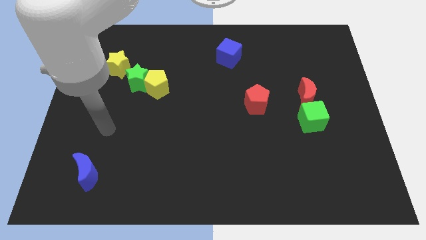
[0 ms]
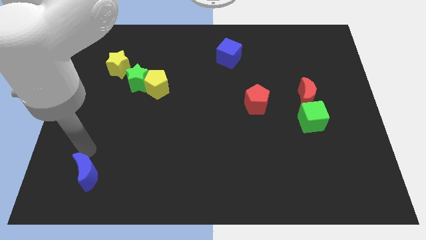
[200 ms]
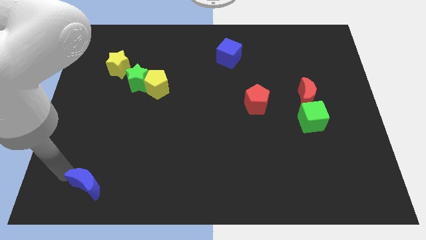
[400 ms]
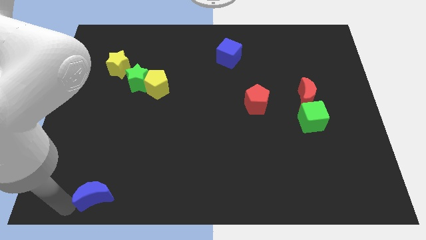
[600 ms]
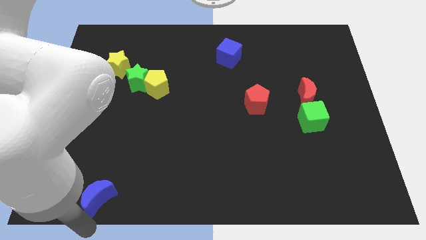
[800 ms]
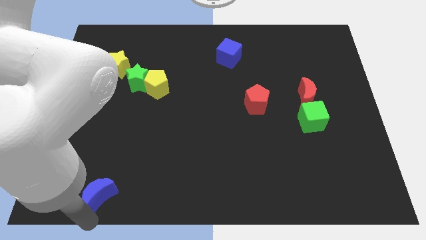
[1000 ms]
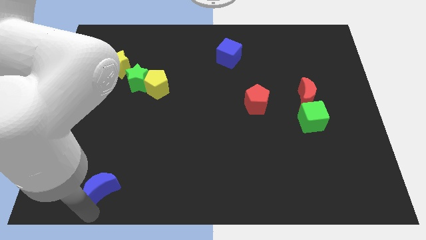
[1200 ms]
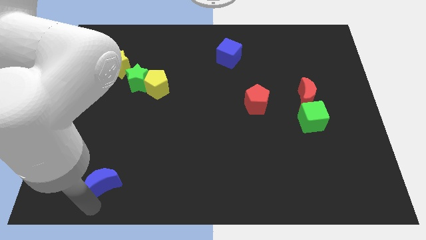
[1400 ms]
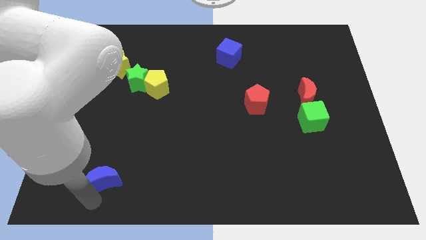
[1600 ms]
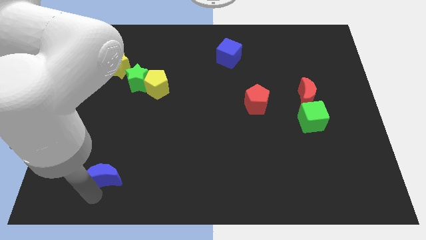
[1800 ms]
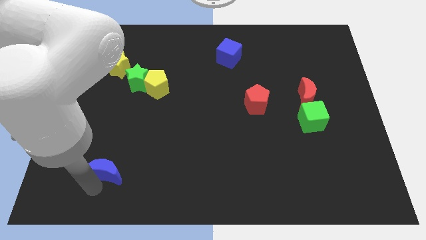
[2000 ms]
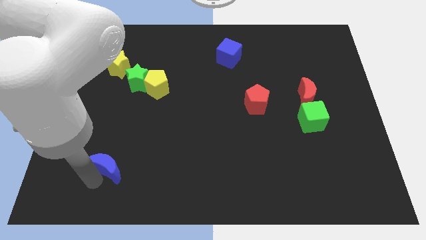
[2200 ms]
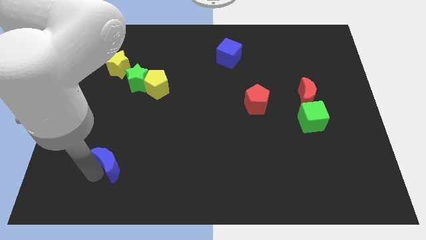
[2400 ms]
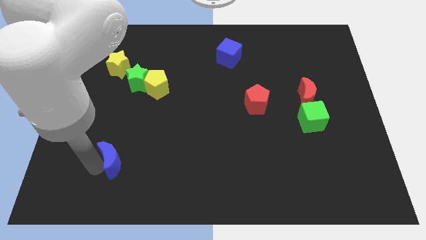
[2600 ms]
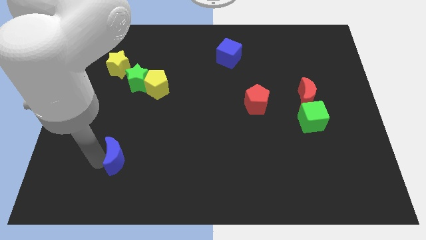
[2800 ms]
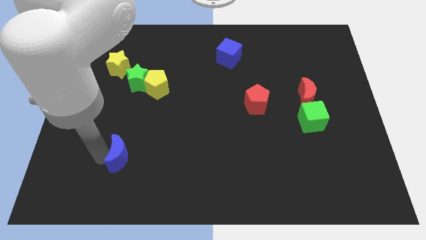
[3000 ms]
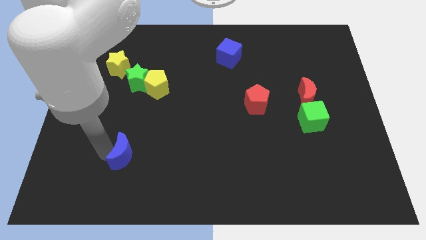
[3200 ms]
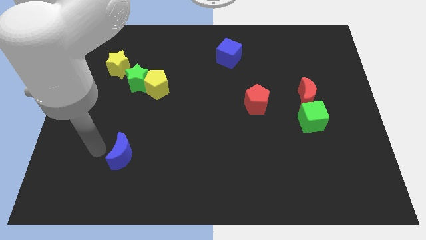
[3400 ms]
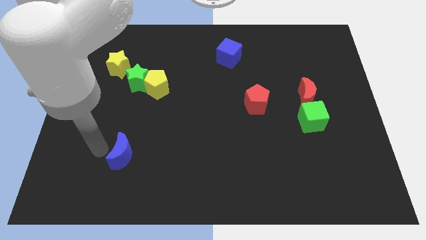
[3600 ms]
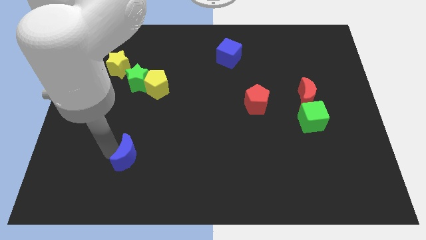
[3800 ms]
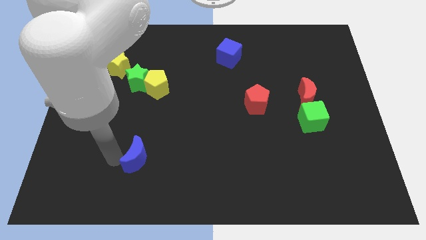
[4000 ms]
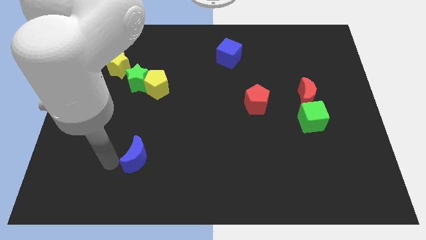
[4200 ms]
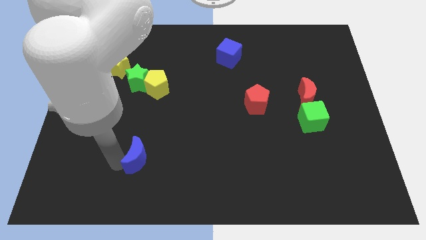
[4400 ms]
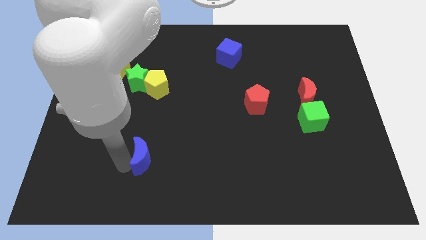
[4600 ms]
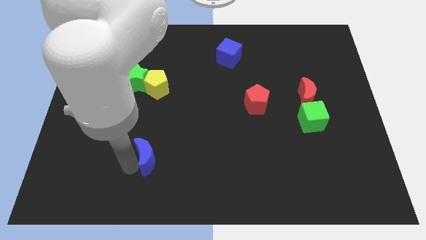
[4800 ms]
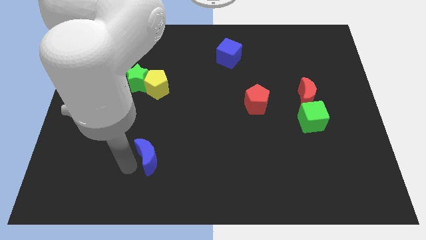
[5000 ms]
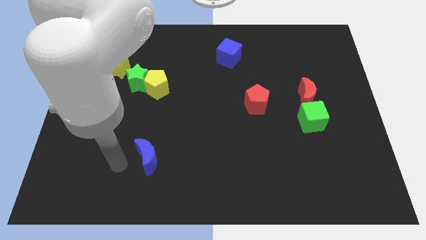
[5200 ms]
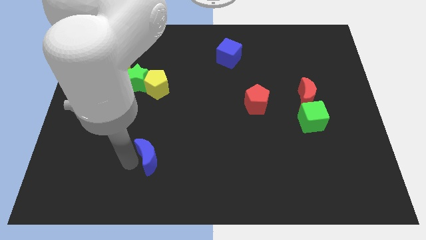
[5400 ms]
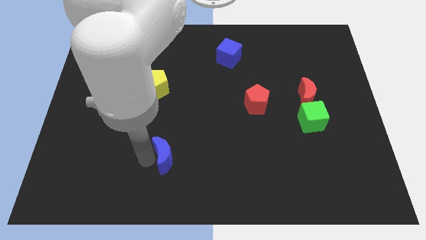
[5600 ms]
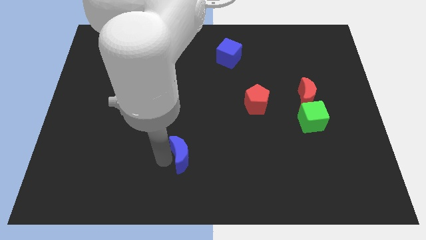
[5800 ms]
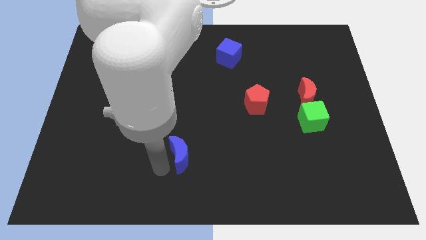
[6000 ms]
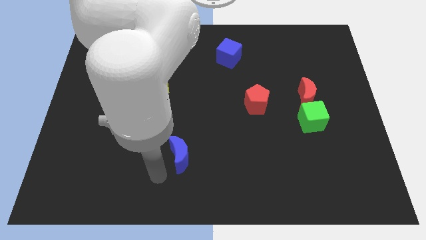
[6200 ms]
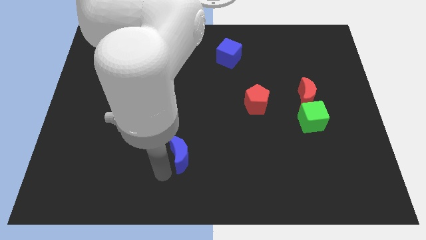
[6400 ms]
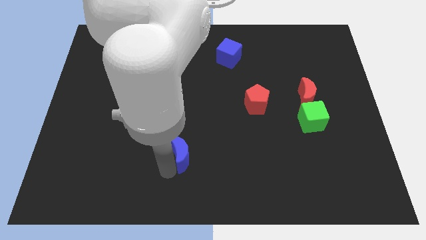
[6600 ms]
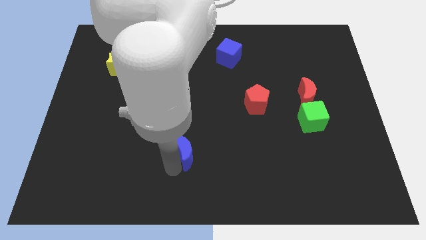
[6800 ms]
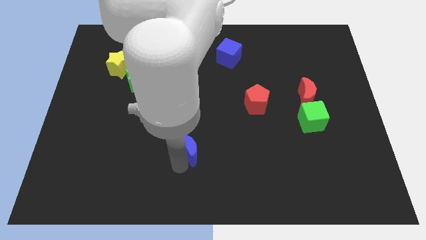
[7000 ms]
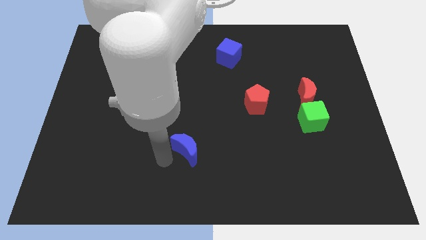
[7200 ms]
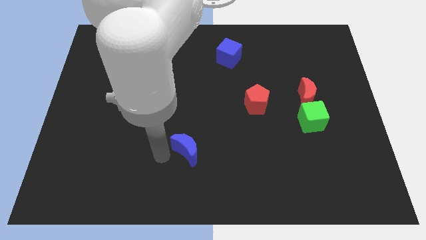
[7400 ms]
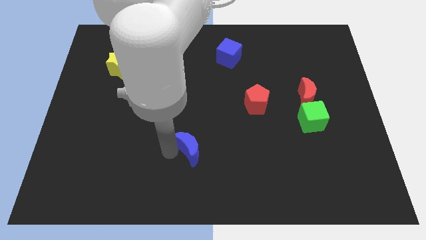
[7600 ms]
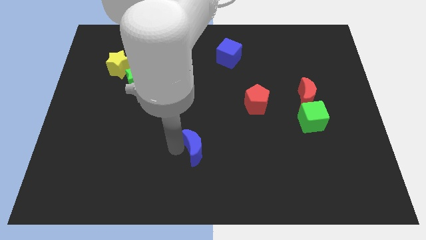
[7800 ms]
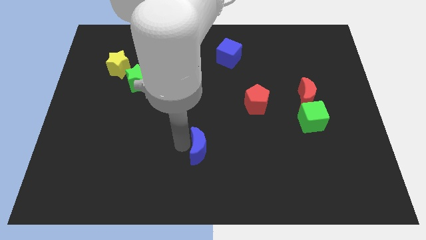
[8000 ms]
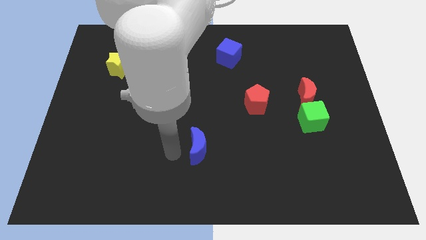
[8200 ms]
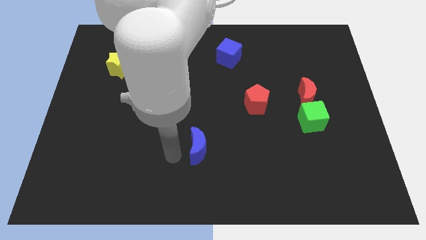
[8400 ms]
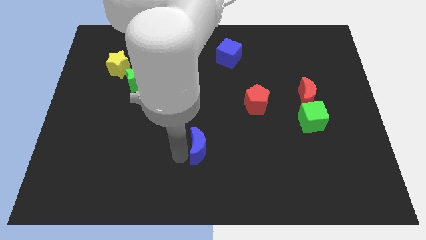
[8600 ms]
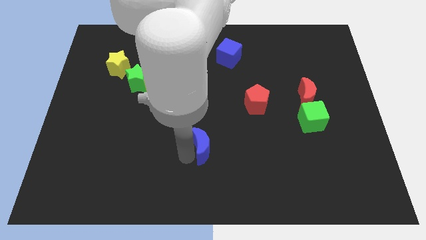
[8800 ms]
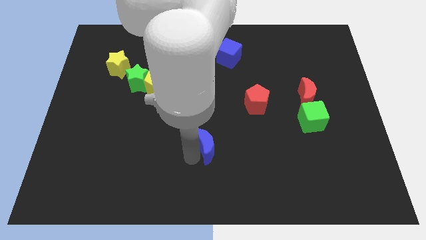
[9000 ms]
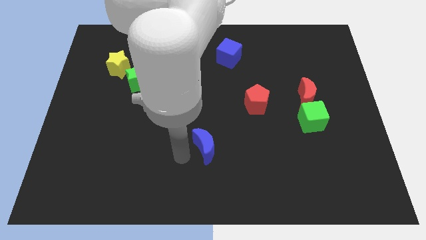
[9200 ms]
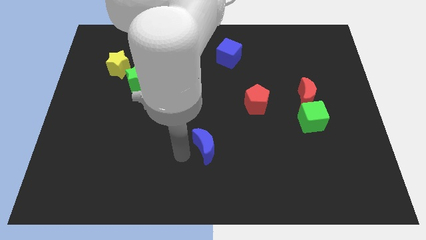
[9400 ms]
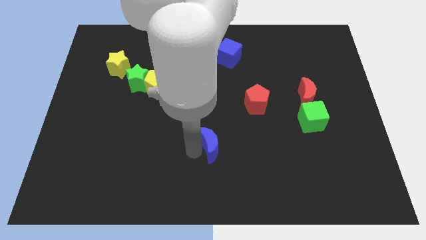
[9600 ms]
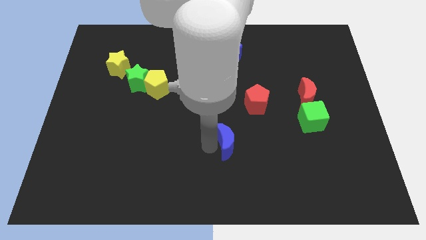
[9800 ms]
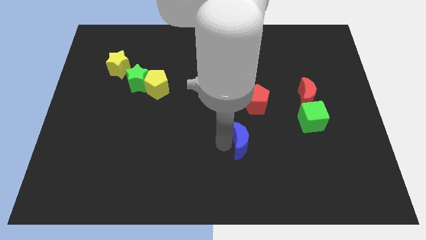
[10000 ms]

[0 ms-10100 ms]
move the blue moon to the bottom side of the red pentagon

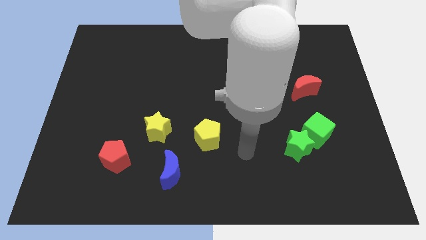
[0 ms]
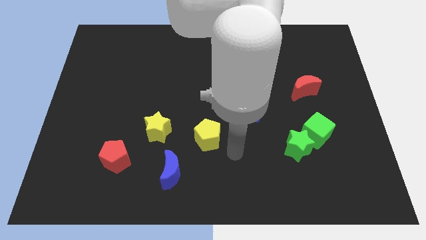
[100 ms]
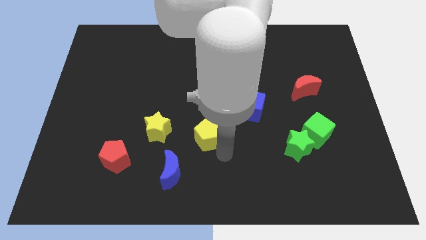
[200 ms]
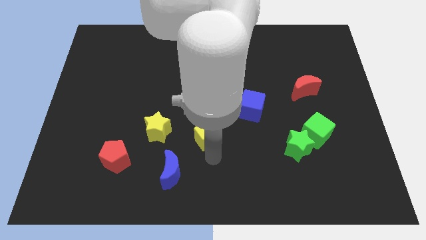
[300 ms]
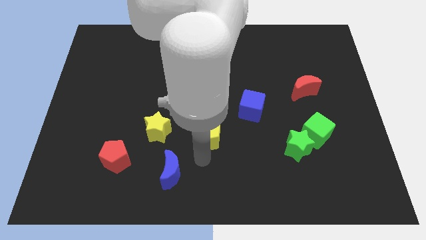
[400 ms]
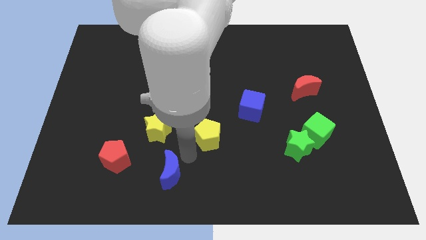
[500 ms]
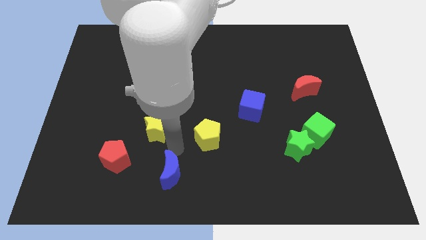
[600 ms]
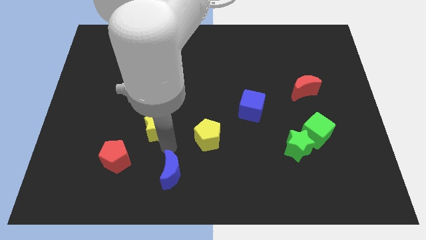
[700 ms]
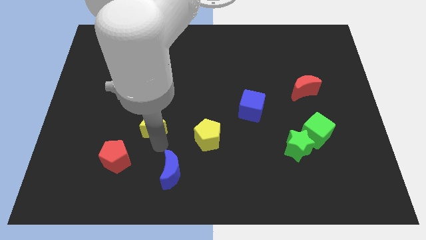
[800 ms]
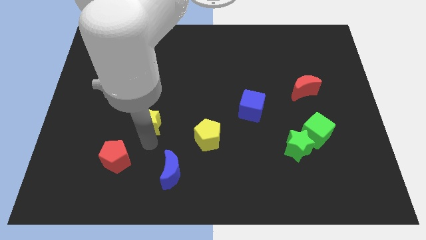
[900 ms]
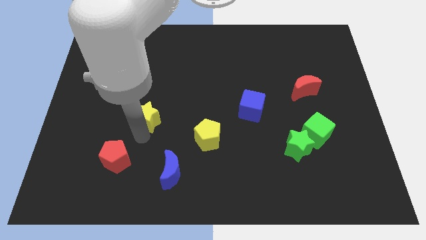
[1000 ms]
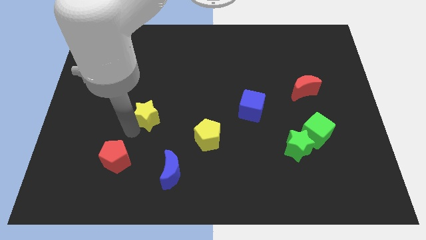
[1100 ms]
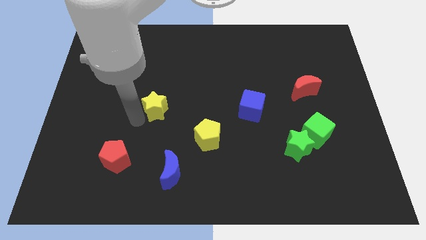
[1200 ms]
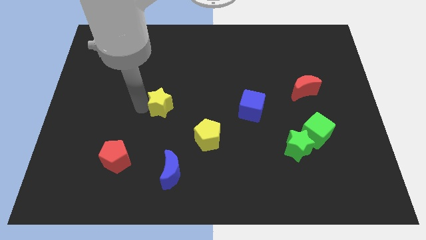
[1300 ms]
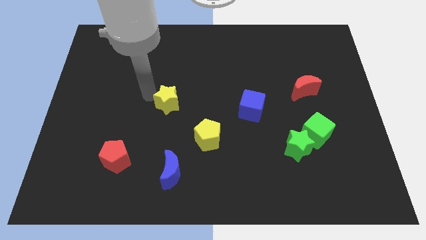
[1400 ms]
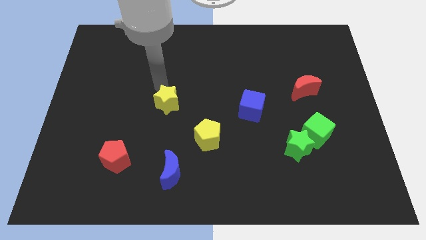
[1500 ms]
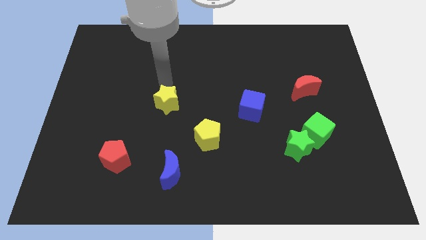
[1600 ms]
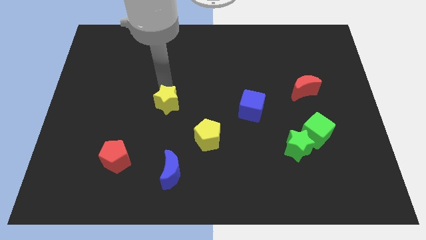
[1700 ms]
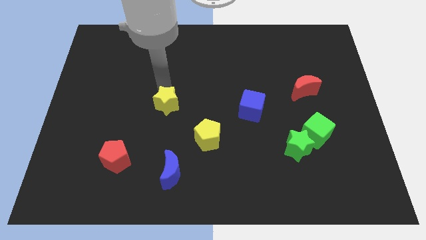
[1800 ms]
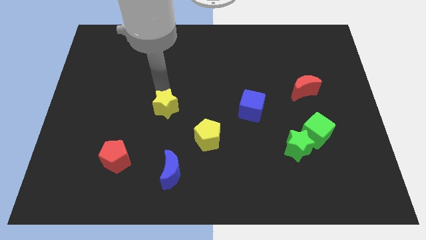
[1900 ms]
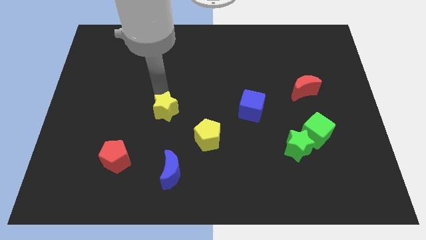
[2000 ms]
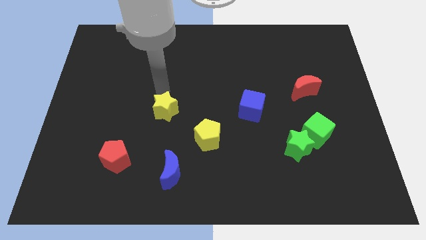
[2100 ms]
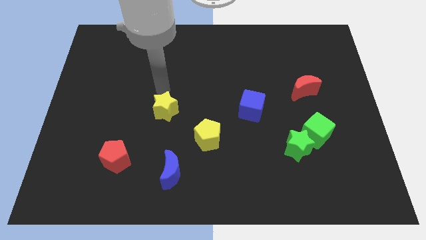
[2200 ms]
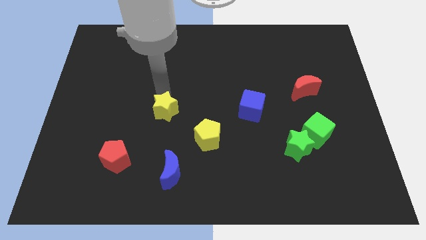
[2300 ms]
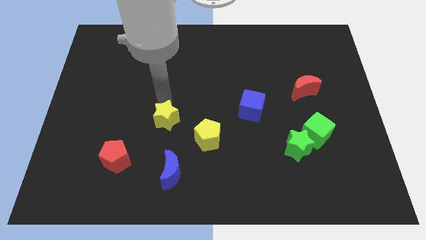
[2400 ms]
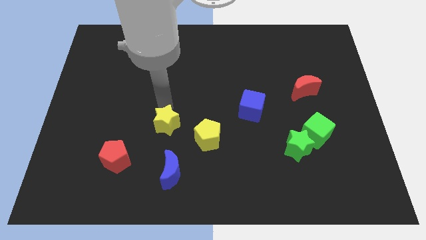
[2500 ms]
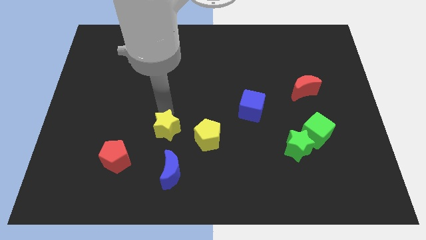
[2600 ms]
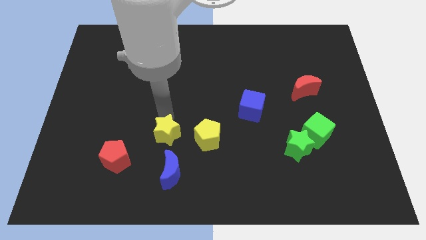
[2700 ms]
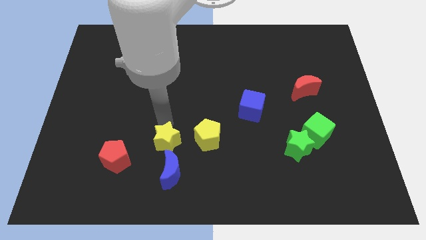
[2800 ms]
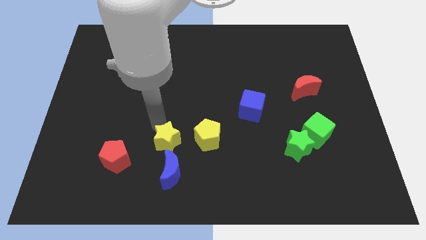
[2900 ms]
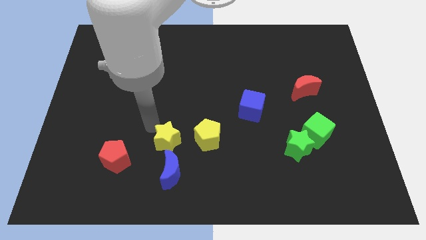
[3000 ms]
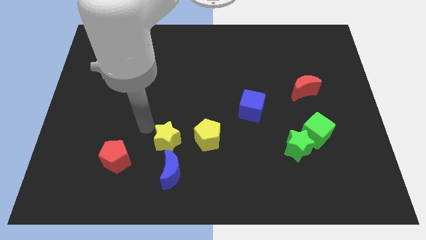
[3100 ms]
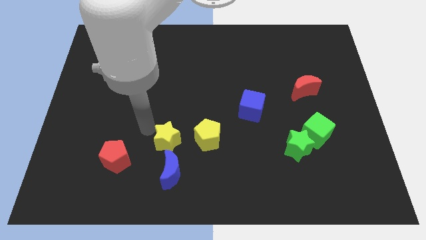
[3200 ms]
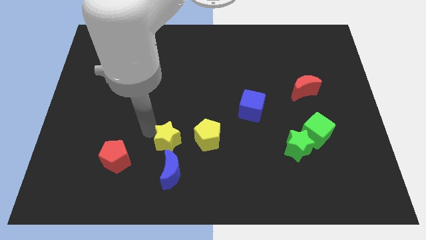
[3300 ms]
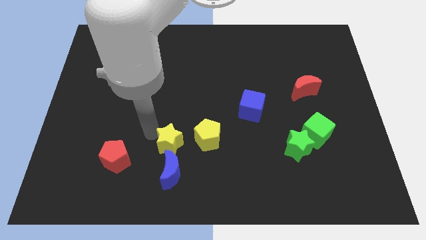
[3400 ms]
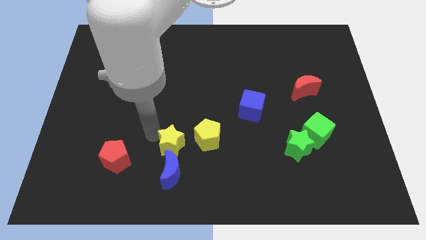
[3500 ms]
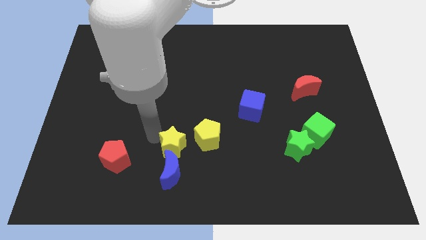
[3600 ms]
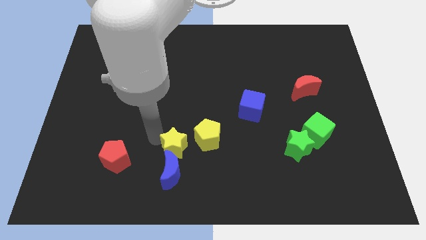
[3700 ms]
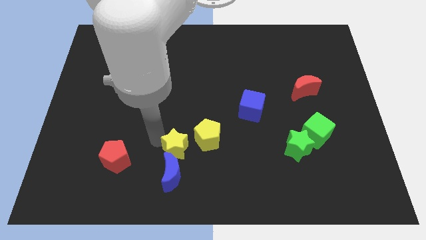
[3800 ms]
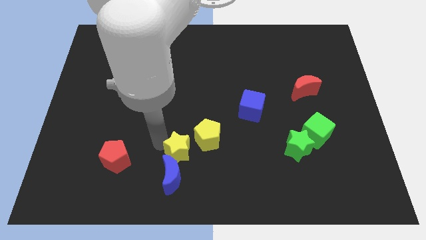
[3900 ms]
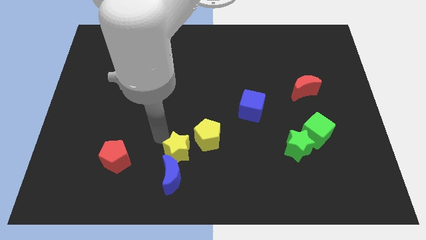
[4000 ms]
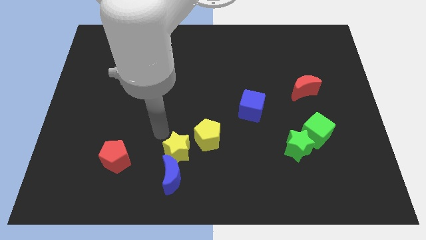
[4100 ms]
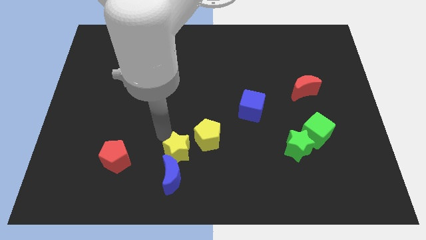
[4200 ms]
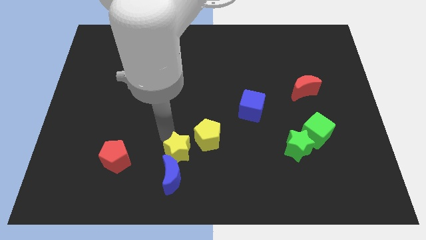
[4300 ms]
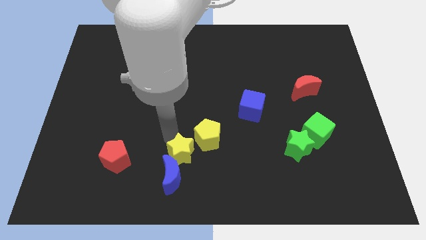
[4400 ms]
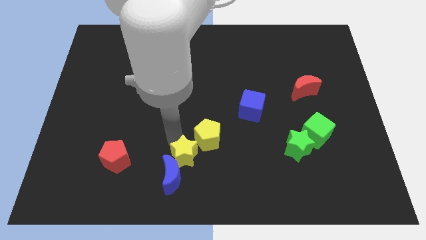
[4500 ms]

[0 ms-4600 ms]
slide the yellow star to the bottom of the yellow pentagon
